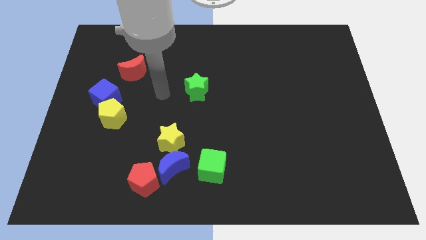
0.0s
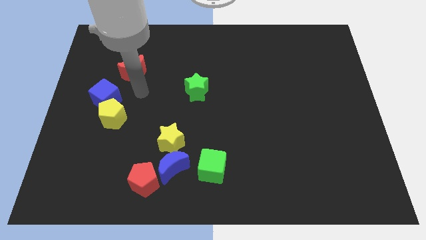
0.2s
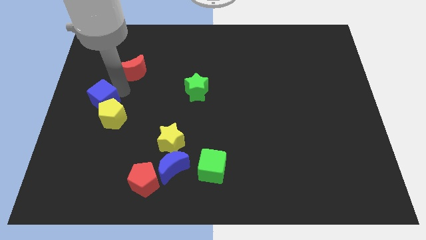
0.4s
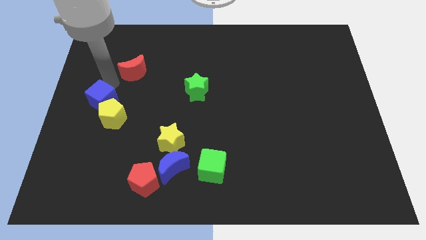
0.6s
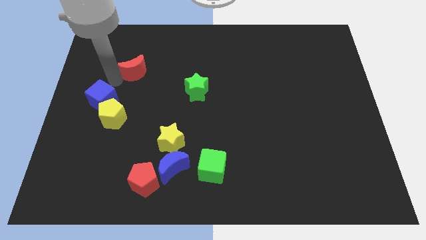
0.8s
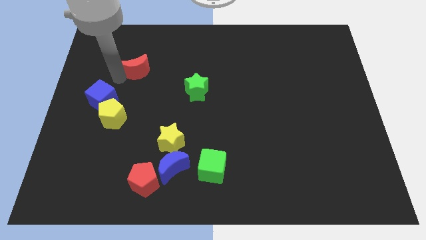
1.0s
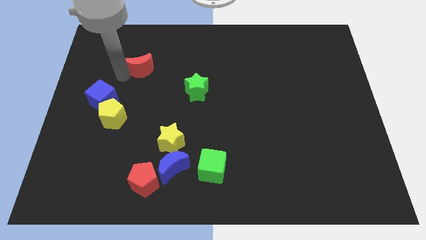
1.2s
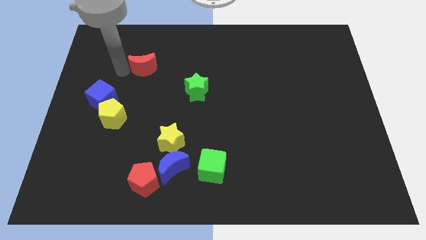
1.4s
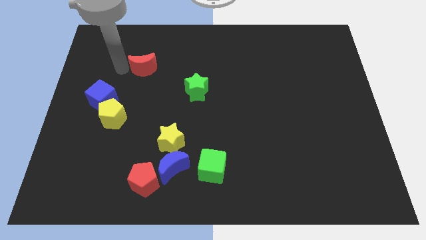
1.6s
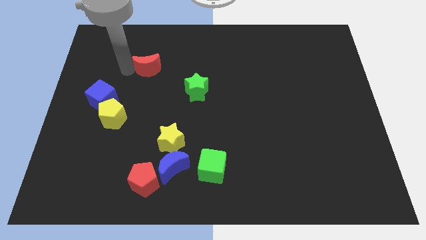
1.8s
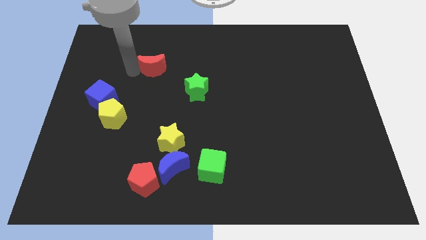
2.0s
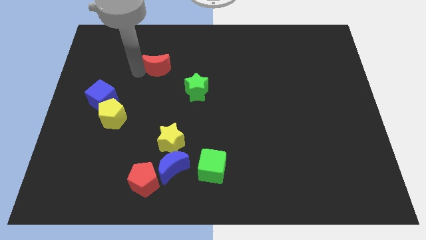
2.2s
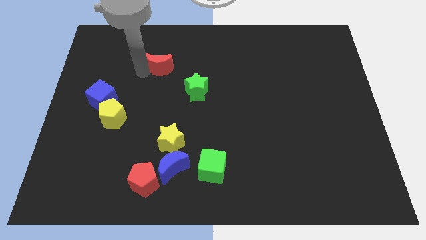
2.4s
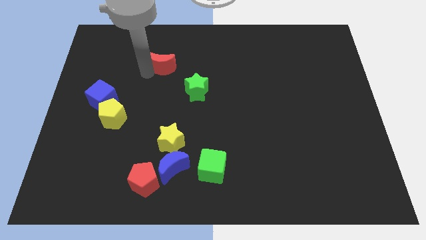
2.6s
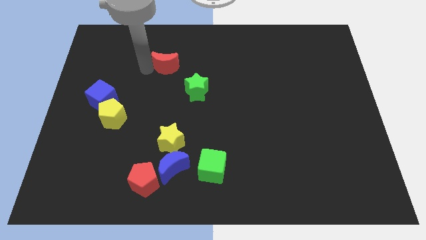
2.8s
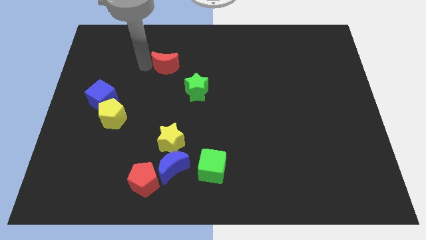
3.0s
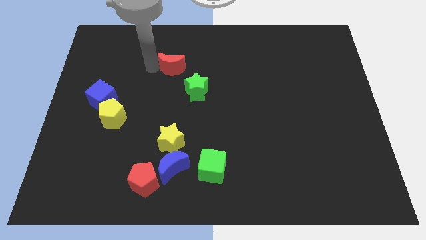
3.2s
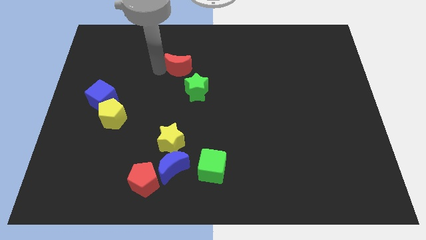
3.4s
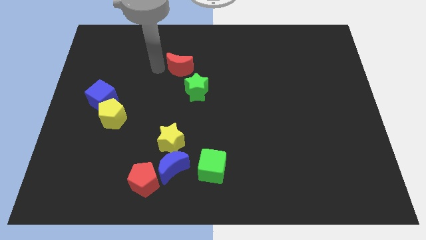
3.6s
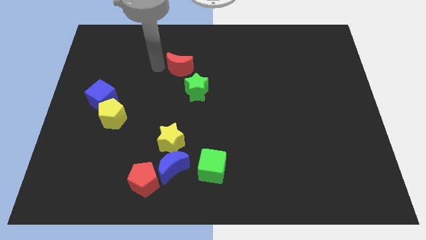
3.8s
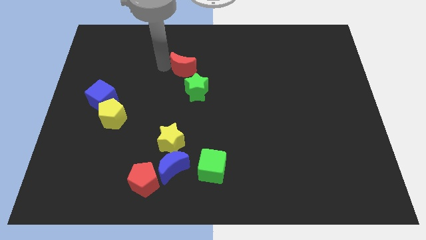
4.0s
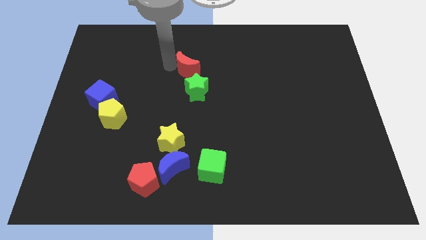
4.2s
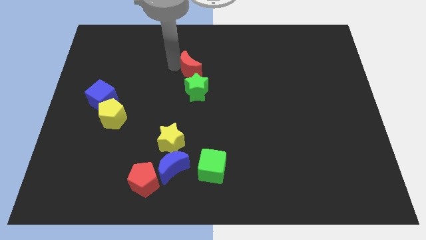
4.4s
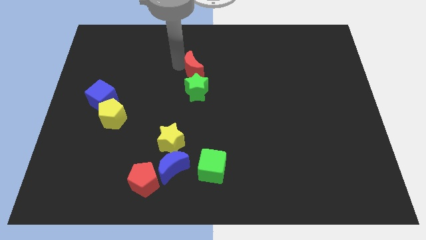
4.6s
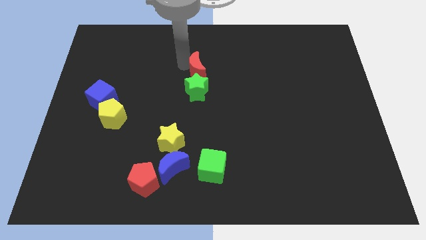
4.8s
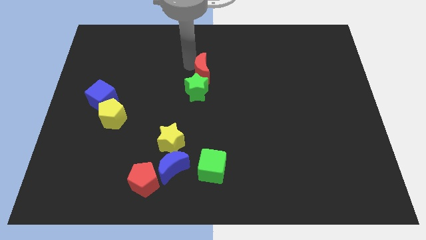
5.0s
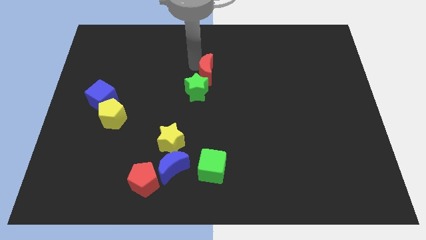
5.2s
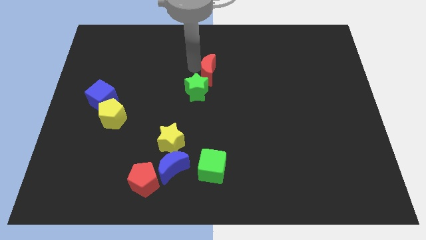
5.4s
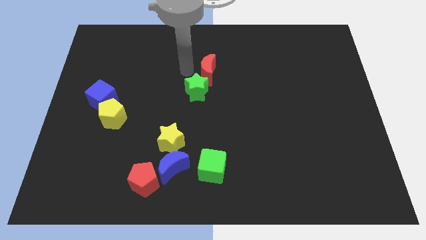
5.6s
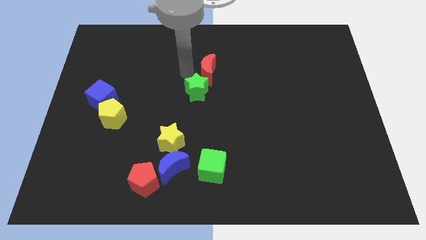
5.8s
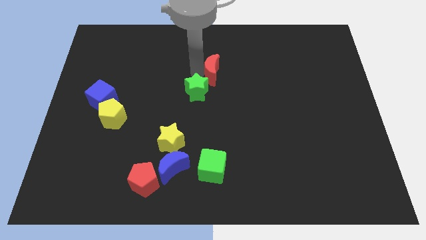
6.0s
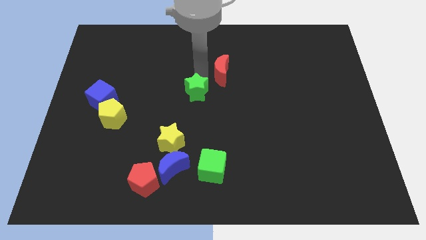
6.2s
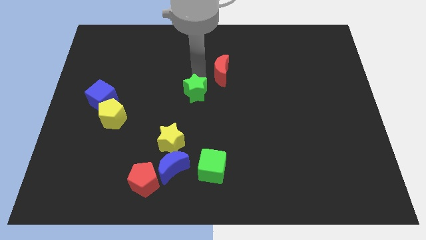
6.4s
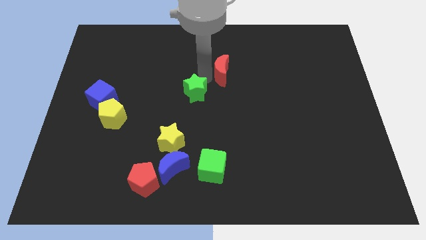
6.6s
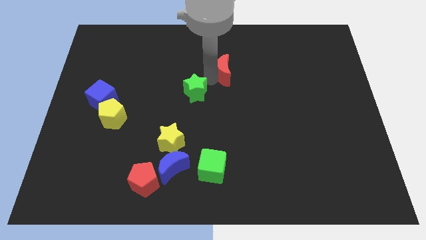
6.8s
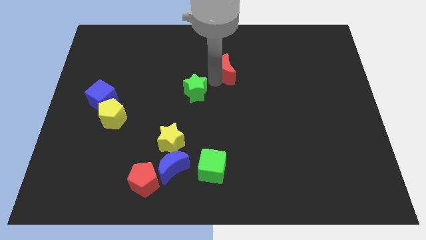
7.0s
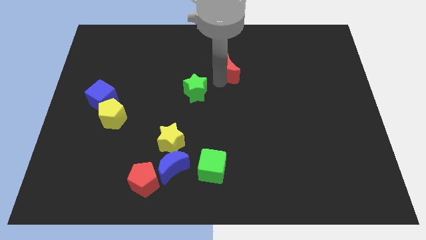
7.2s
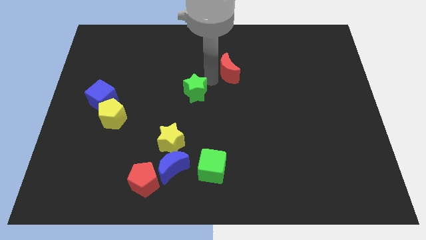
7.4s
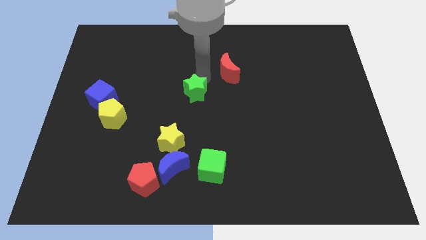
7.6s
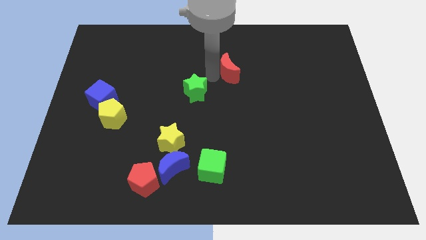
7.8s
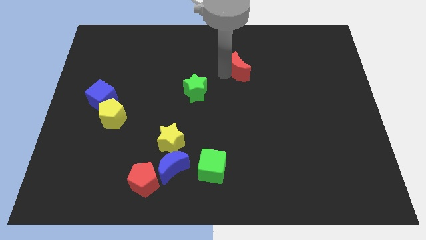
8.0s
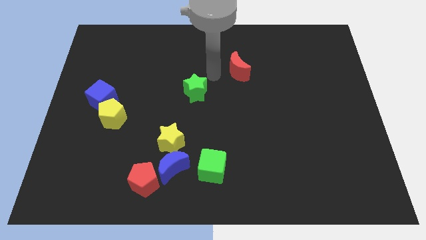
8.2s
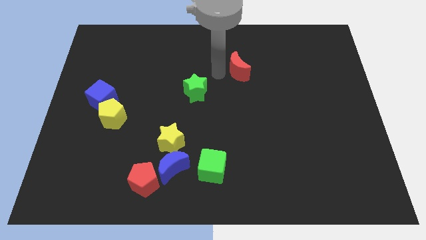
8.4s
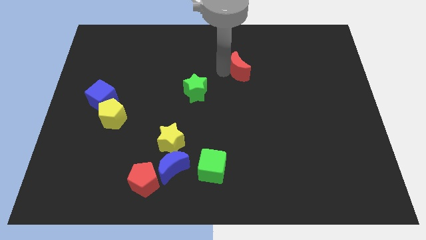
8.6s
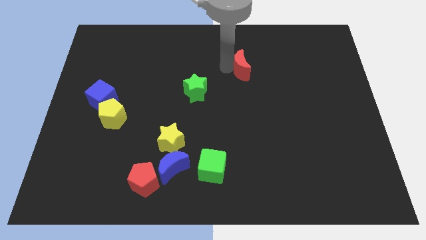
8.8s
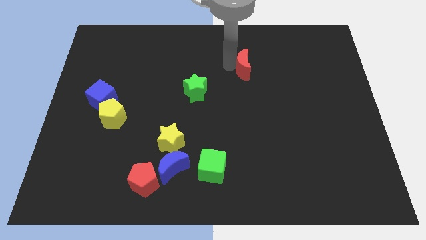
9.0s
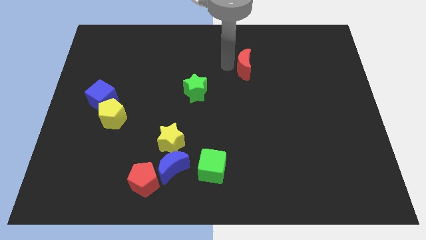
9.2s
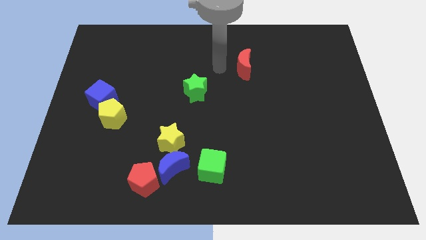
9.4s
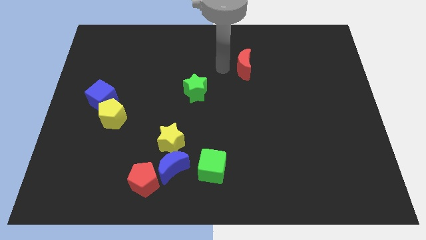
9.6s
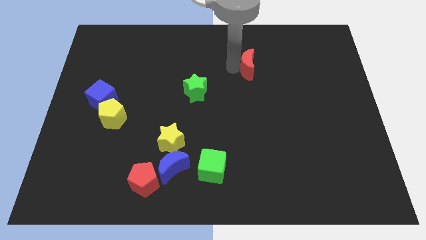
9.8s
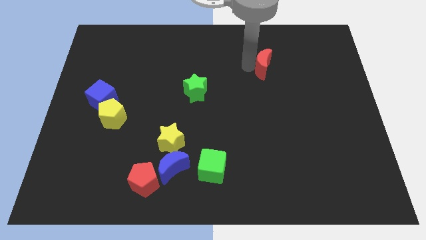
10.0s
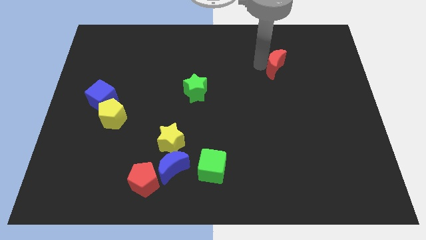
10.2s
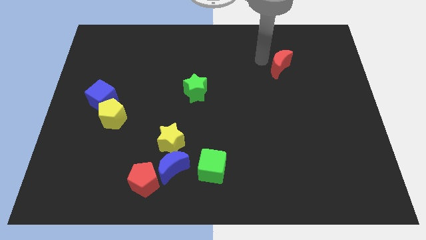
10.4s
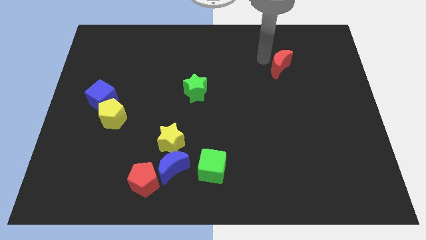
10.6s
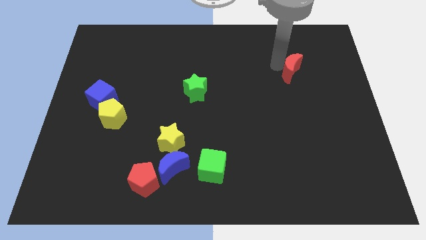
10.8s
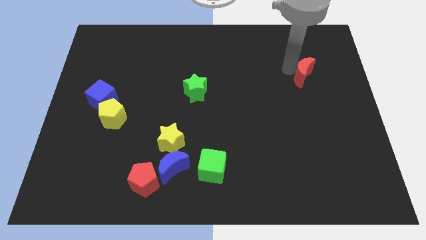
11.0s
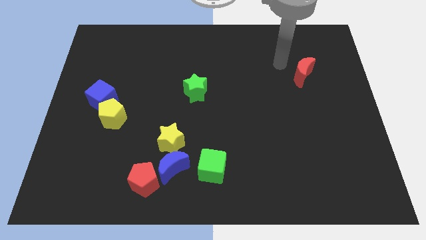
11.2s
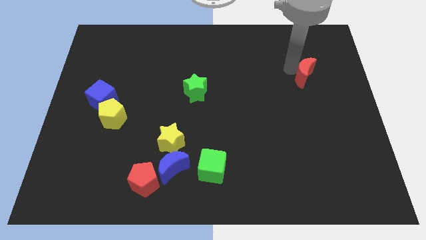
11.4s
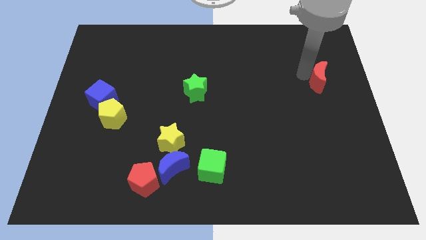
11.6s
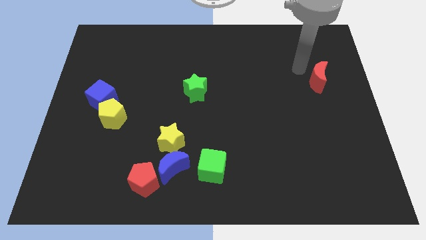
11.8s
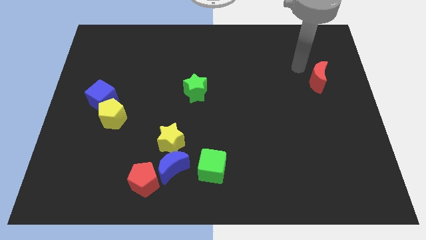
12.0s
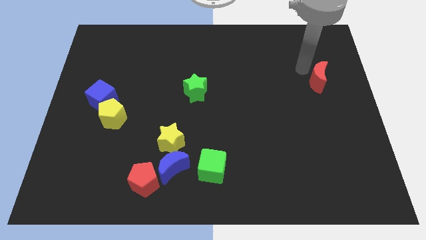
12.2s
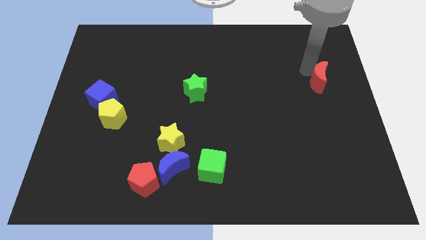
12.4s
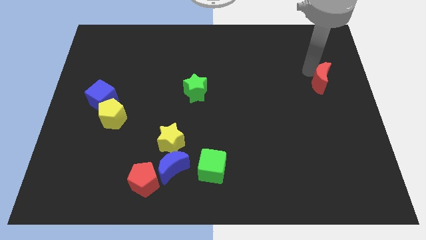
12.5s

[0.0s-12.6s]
slide the red moon to the center right
